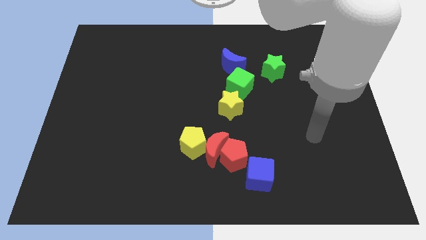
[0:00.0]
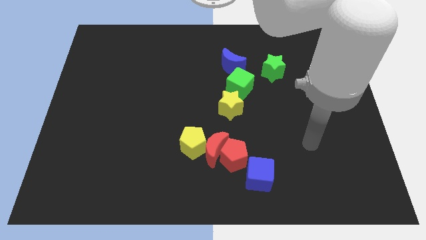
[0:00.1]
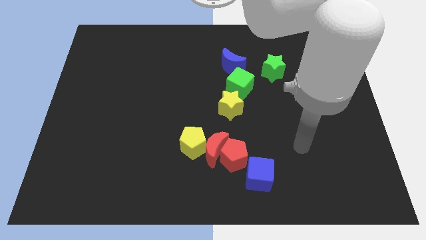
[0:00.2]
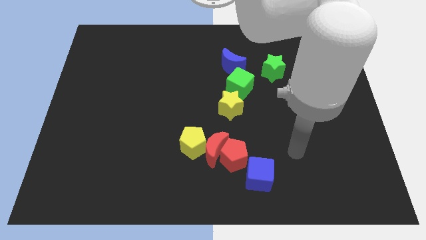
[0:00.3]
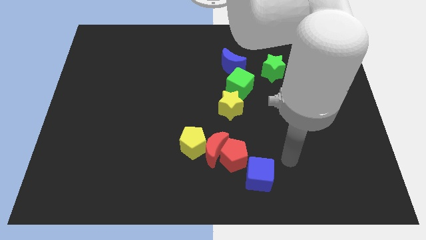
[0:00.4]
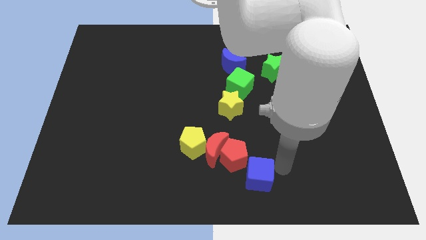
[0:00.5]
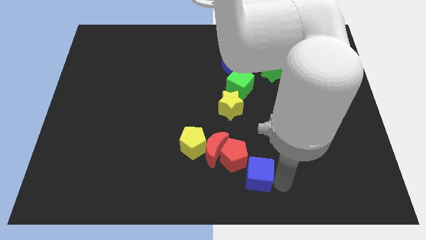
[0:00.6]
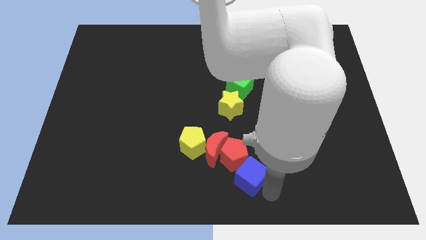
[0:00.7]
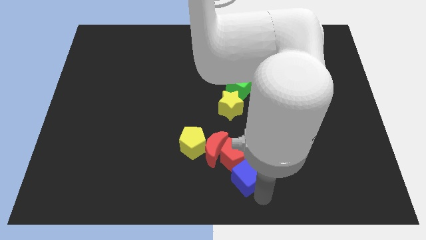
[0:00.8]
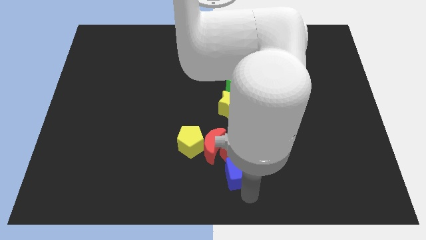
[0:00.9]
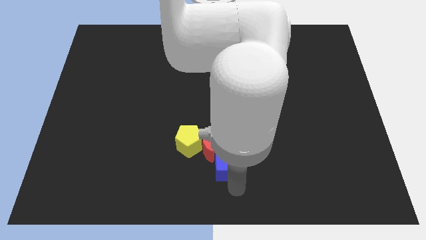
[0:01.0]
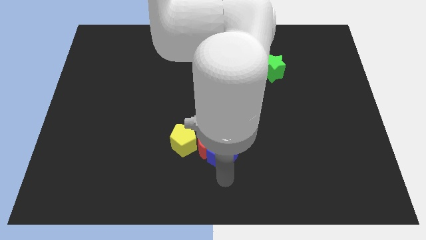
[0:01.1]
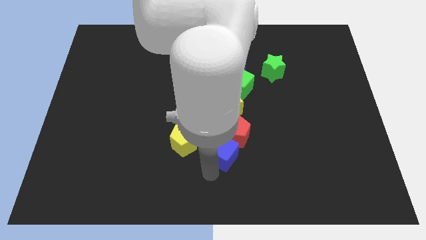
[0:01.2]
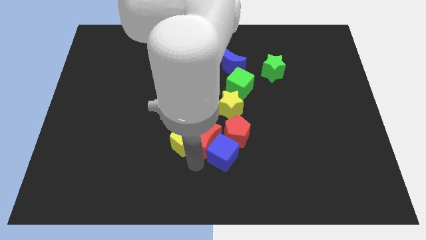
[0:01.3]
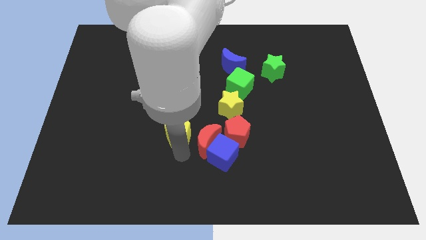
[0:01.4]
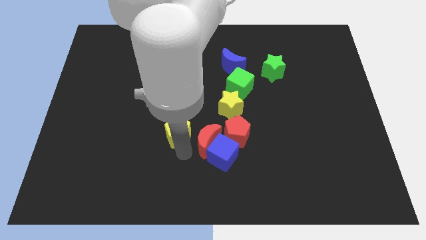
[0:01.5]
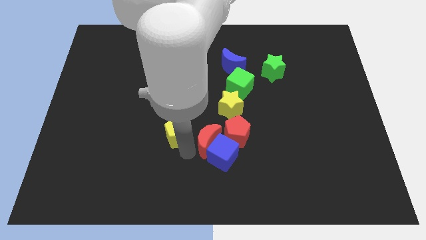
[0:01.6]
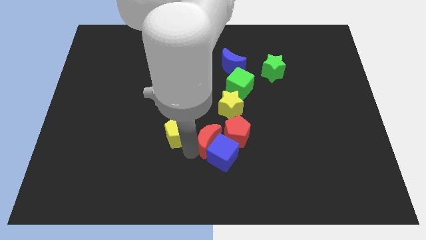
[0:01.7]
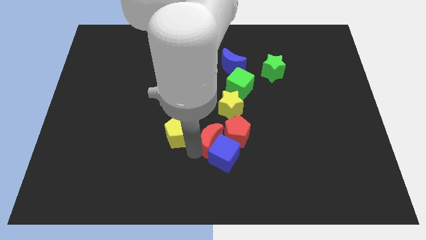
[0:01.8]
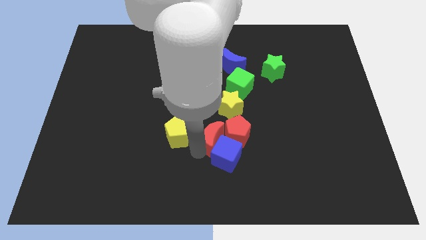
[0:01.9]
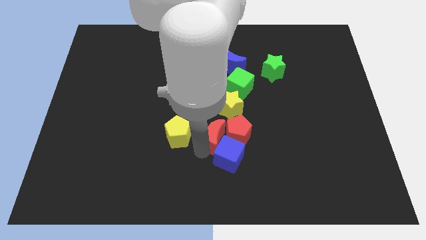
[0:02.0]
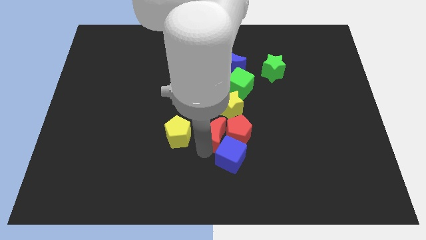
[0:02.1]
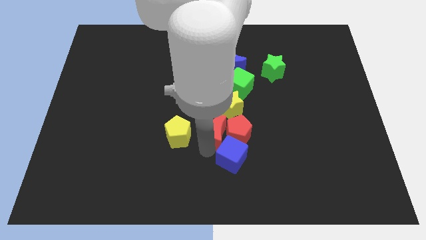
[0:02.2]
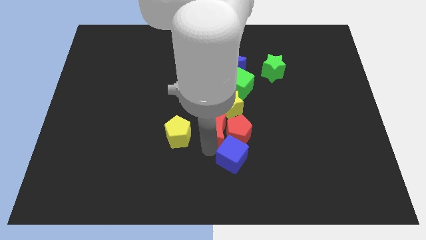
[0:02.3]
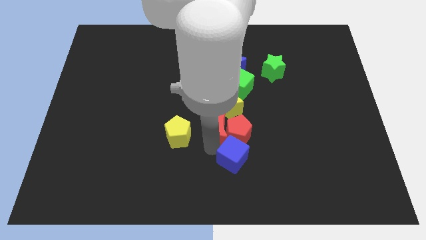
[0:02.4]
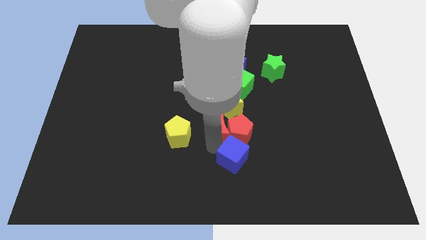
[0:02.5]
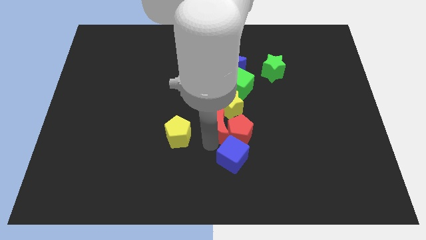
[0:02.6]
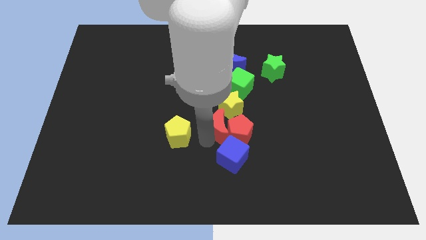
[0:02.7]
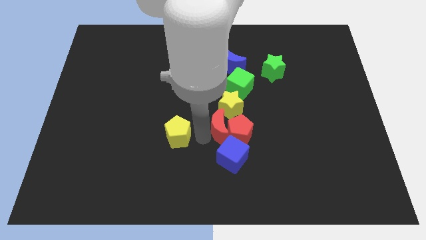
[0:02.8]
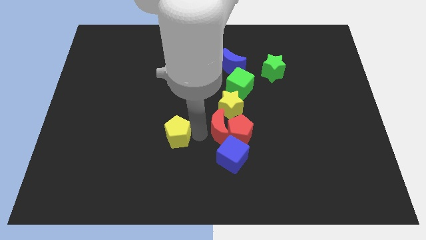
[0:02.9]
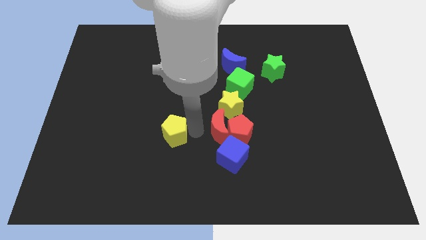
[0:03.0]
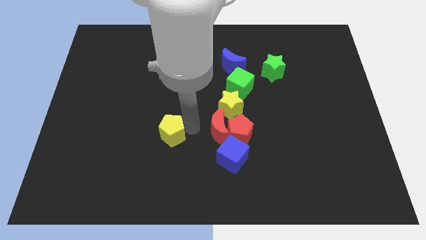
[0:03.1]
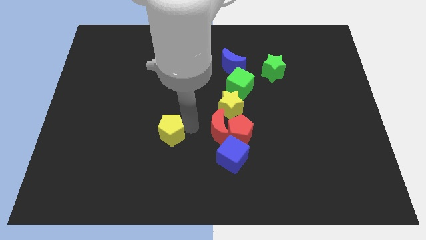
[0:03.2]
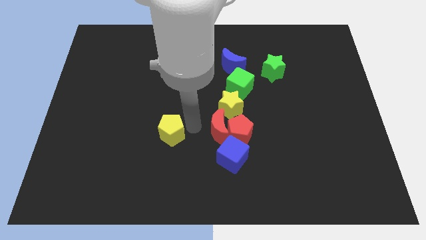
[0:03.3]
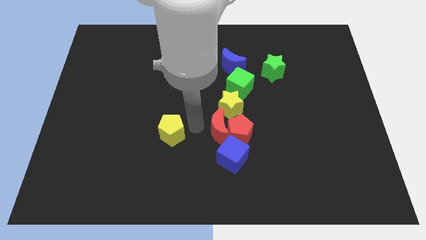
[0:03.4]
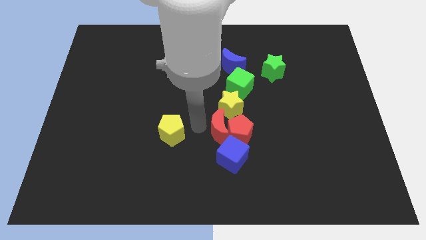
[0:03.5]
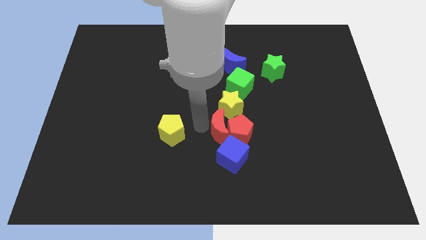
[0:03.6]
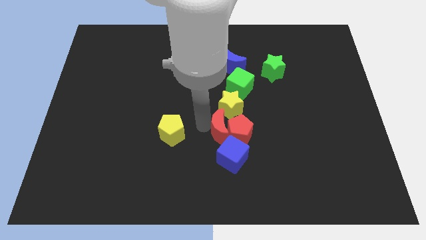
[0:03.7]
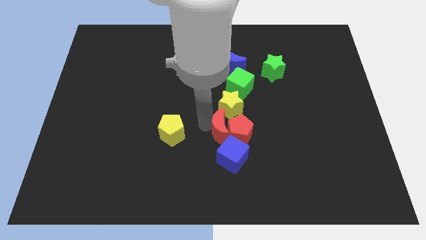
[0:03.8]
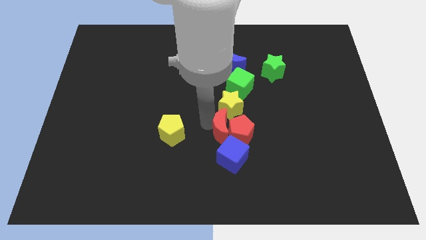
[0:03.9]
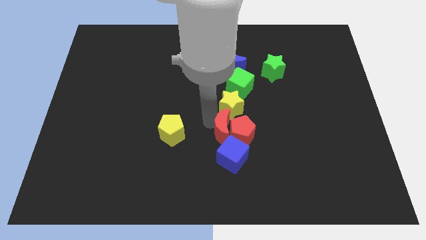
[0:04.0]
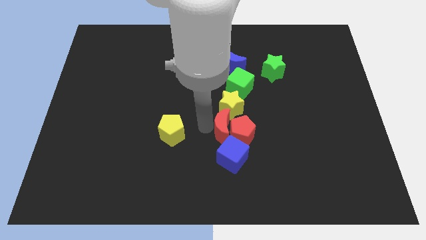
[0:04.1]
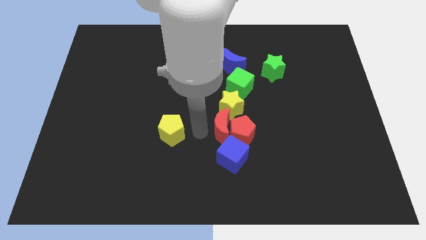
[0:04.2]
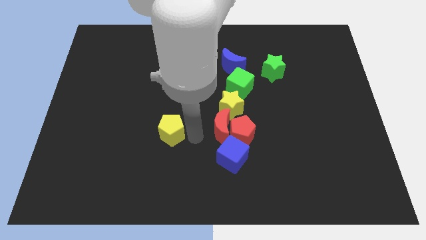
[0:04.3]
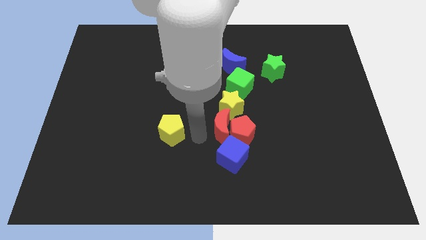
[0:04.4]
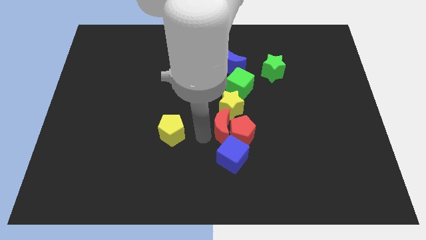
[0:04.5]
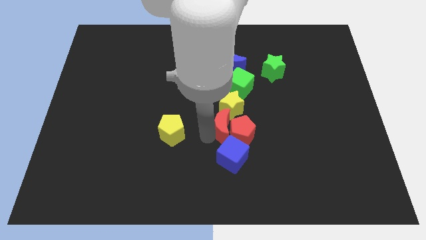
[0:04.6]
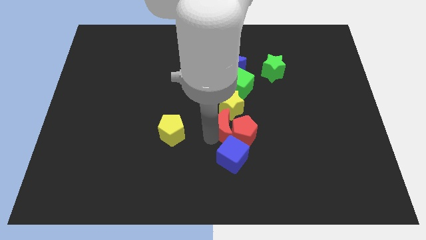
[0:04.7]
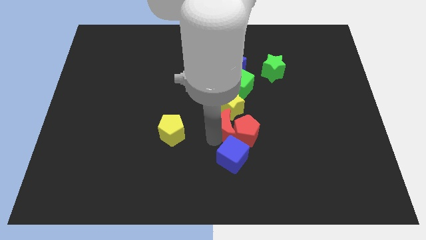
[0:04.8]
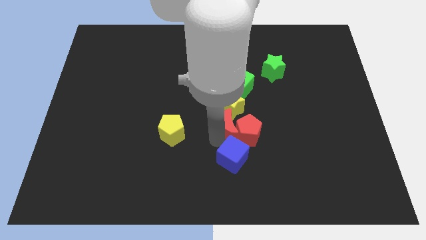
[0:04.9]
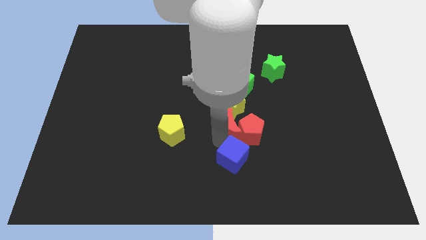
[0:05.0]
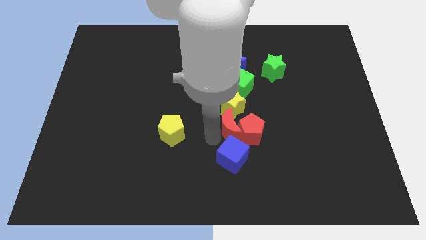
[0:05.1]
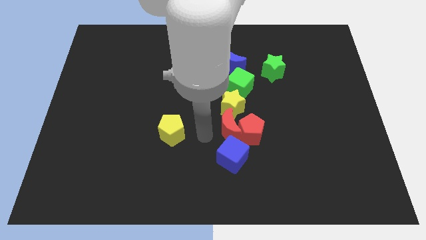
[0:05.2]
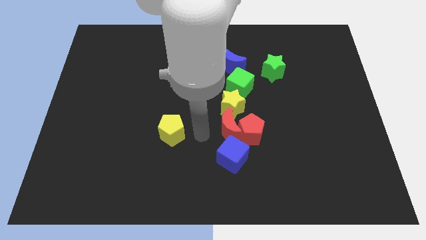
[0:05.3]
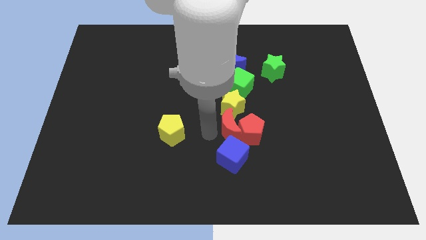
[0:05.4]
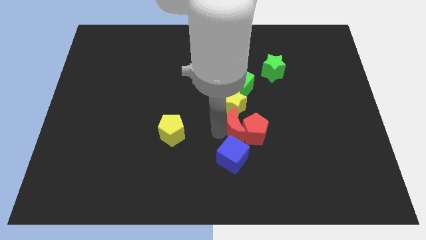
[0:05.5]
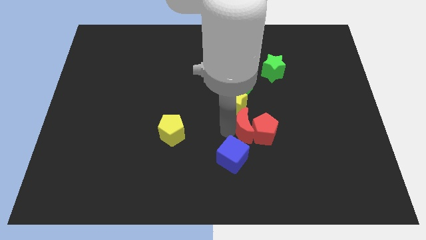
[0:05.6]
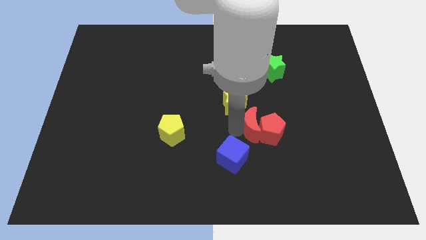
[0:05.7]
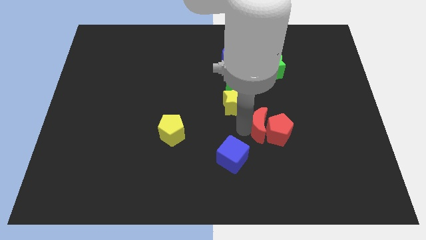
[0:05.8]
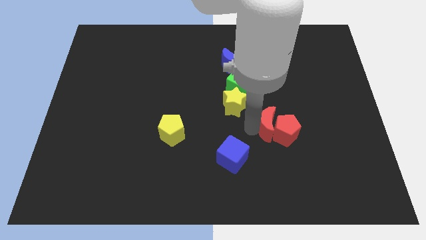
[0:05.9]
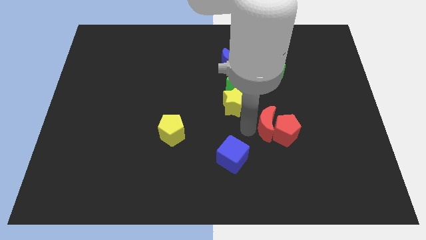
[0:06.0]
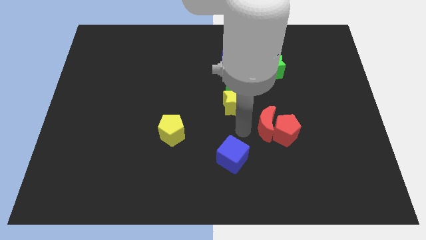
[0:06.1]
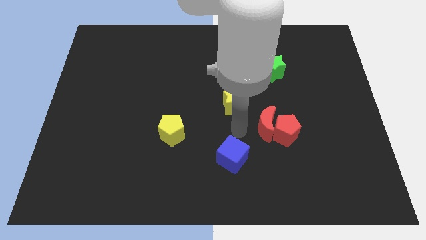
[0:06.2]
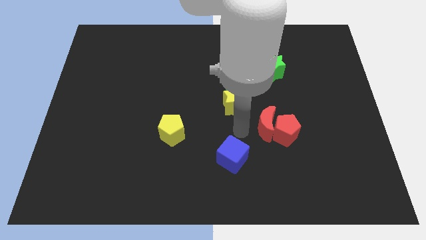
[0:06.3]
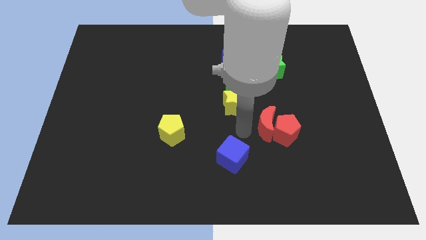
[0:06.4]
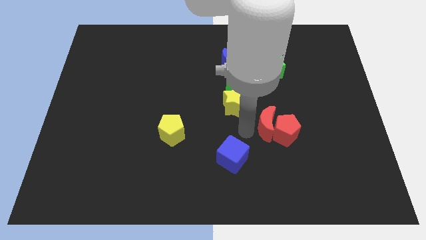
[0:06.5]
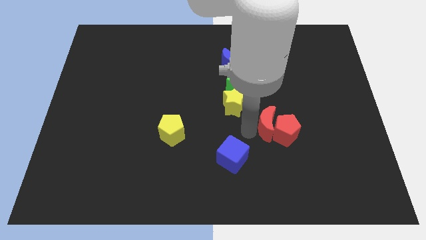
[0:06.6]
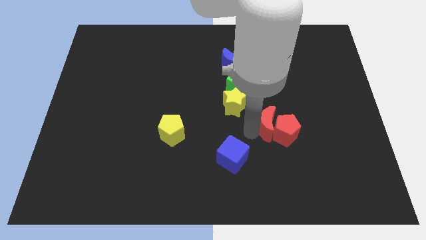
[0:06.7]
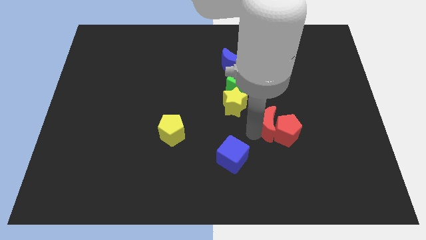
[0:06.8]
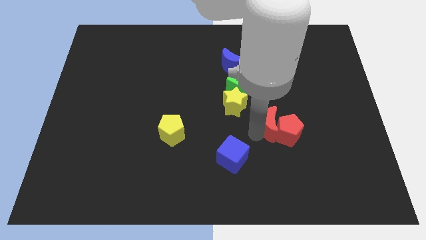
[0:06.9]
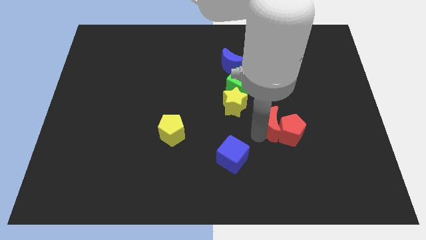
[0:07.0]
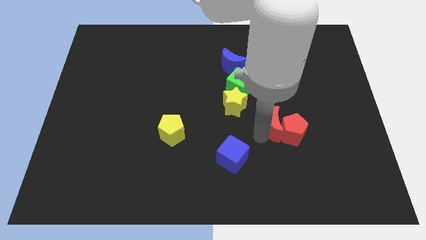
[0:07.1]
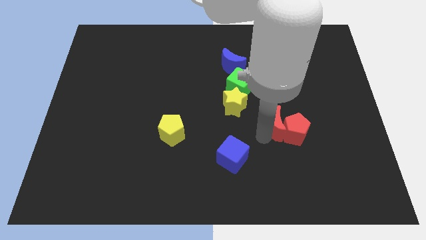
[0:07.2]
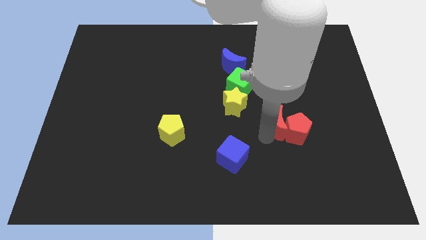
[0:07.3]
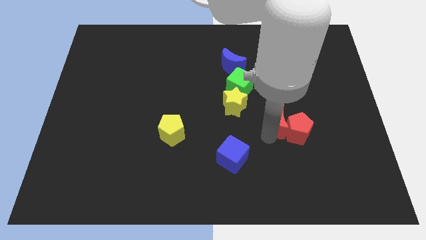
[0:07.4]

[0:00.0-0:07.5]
move the red moon away from the red pentagon and yellow pentagon

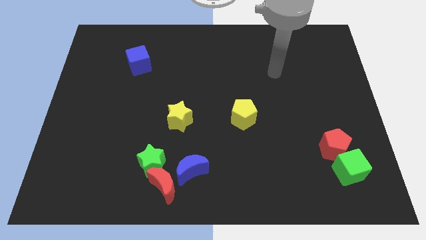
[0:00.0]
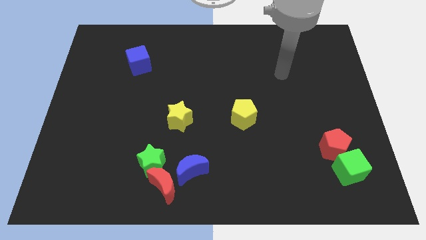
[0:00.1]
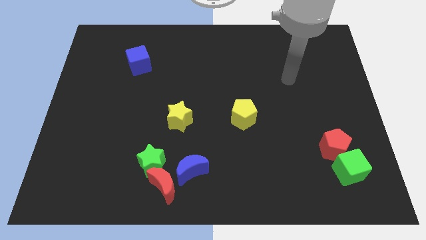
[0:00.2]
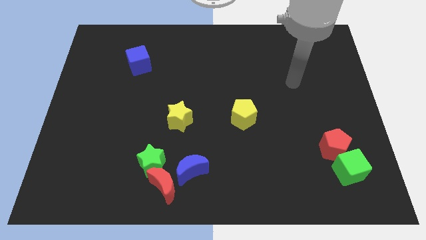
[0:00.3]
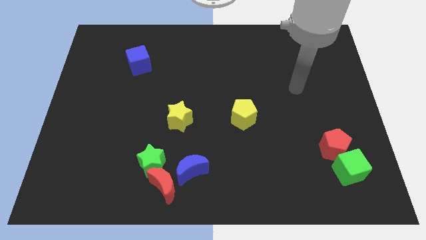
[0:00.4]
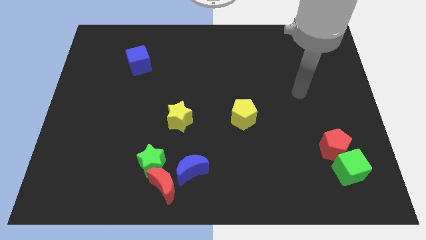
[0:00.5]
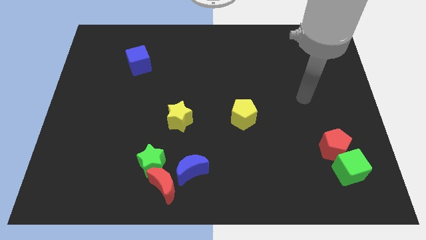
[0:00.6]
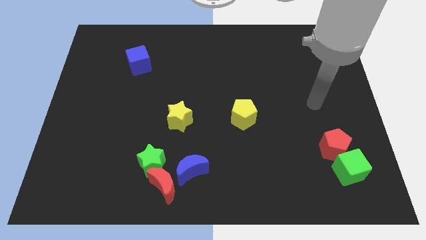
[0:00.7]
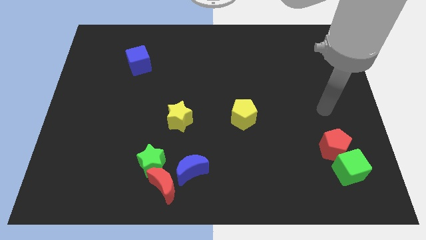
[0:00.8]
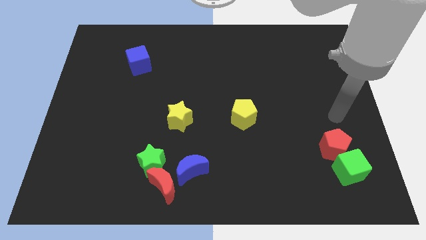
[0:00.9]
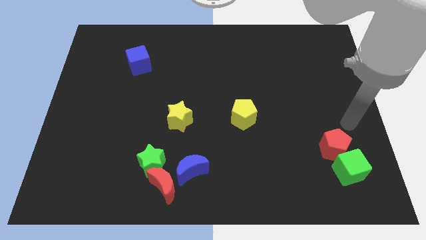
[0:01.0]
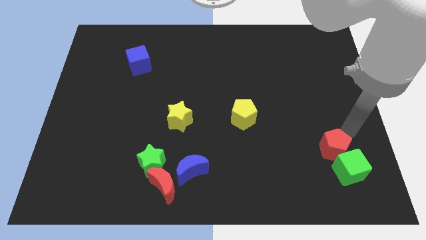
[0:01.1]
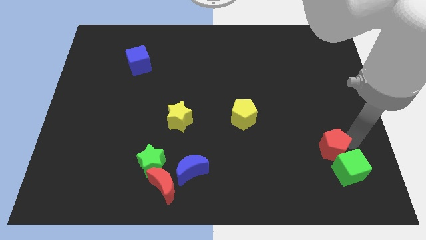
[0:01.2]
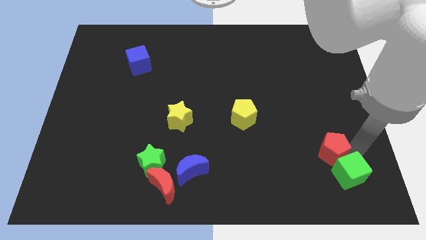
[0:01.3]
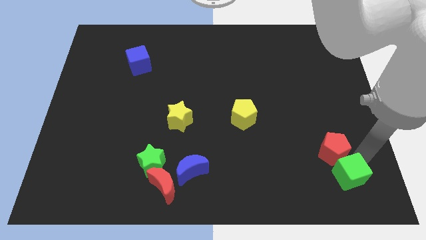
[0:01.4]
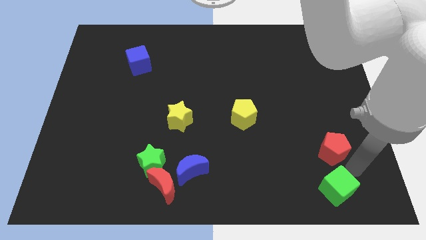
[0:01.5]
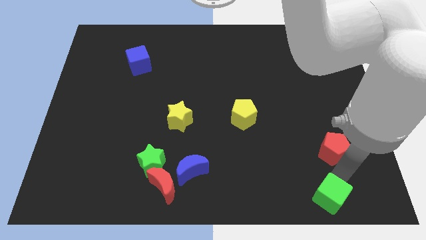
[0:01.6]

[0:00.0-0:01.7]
separate the red pentagon from the green cube

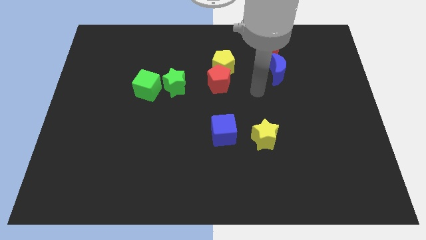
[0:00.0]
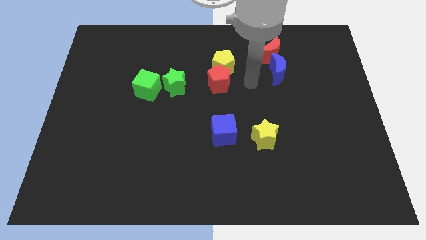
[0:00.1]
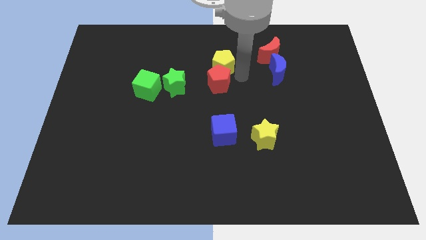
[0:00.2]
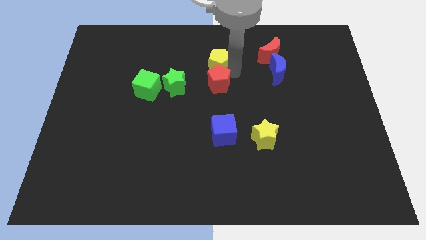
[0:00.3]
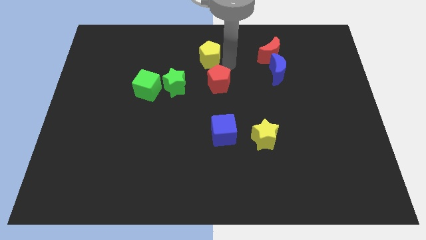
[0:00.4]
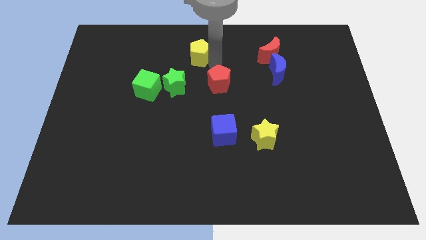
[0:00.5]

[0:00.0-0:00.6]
move the red pentagon away from the yellow pentagon
